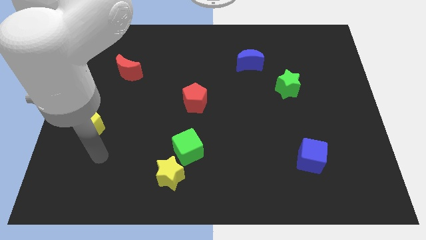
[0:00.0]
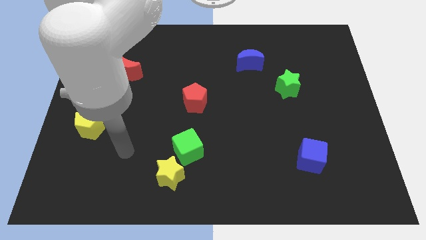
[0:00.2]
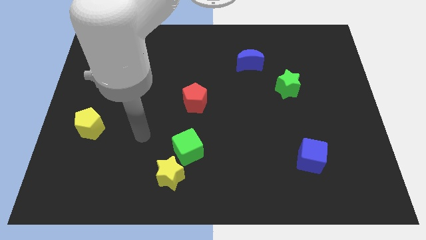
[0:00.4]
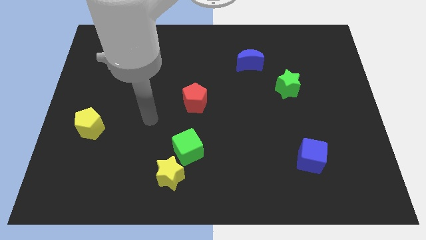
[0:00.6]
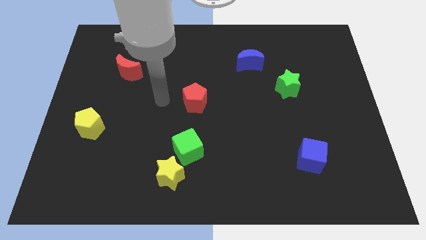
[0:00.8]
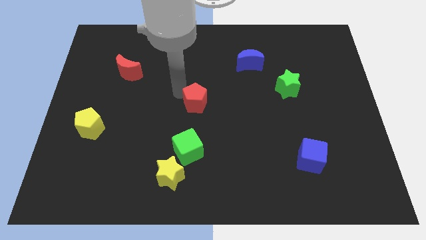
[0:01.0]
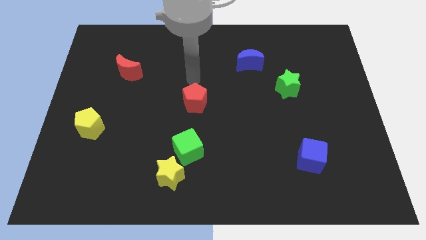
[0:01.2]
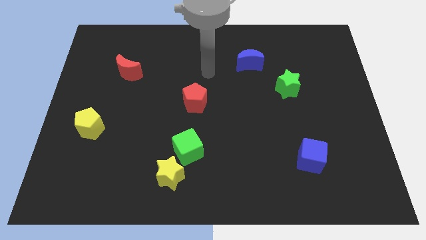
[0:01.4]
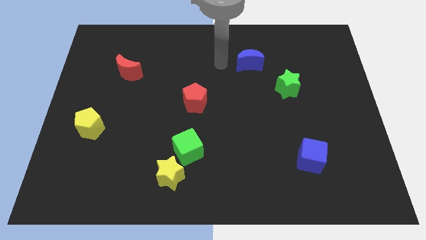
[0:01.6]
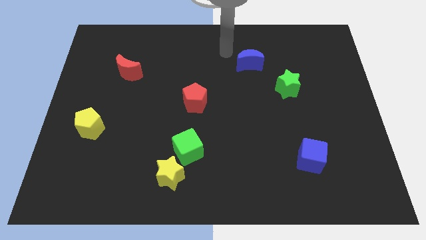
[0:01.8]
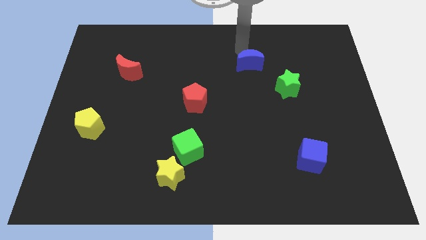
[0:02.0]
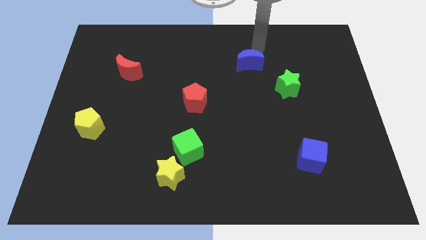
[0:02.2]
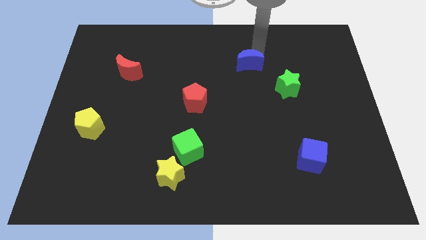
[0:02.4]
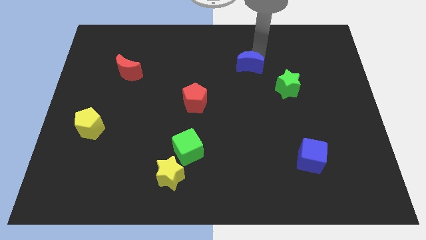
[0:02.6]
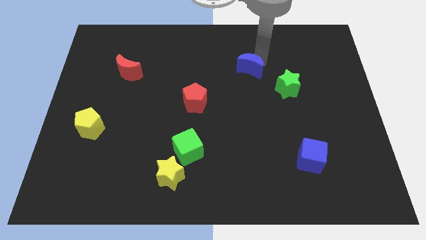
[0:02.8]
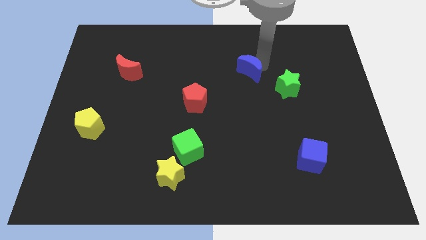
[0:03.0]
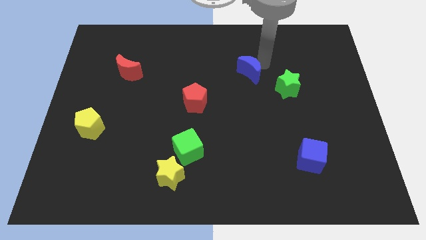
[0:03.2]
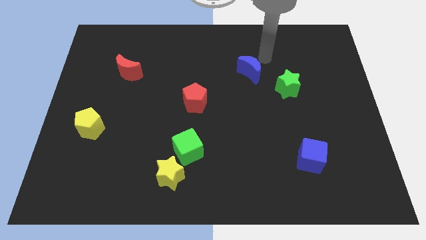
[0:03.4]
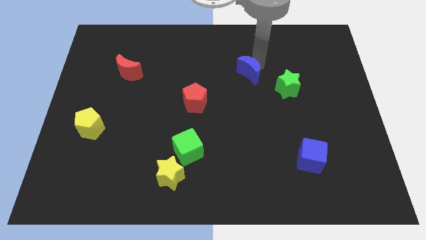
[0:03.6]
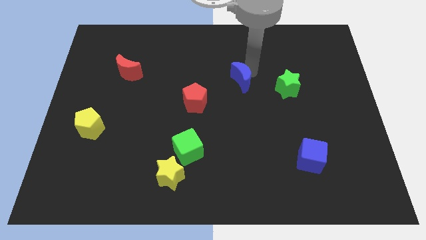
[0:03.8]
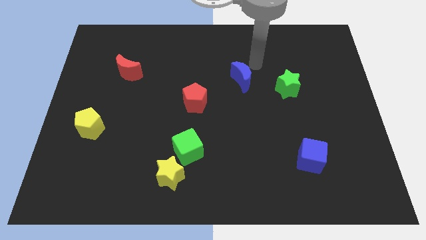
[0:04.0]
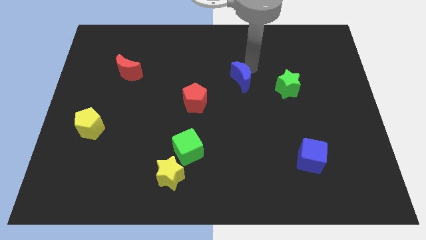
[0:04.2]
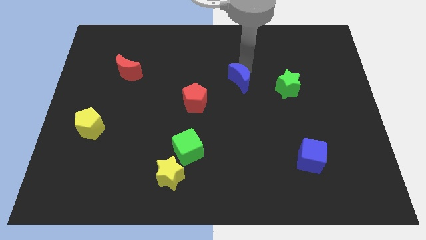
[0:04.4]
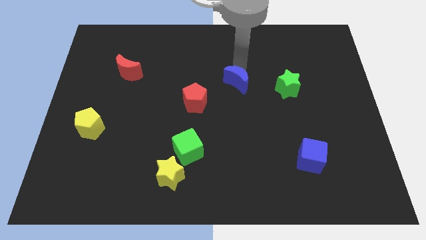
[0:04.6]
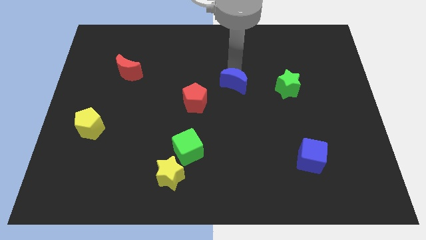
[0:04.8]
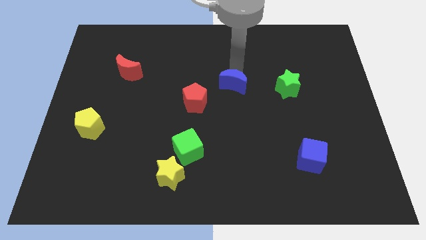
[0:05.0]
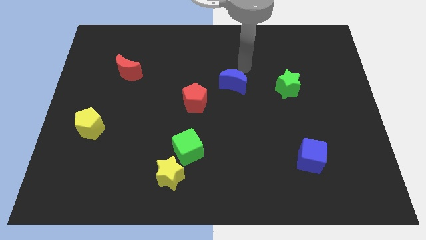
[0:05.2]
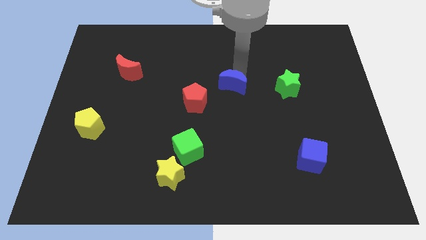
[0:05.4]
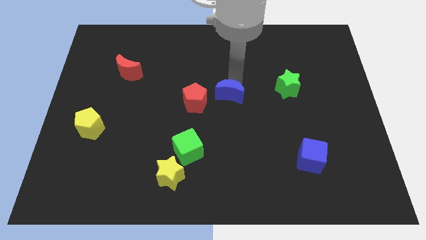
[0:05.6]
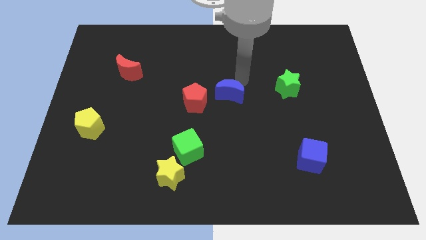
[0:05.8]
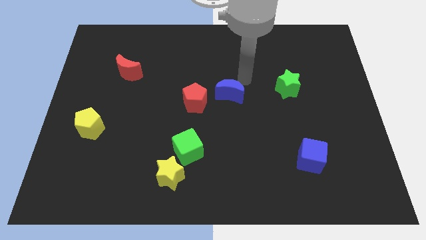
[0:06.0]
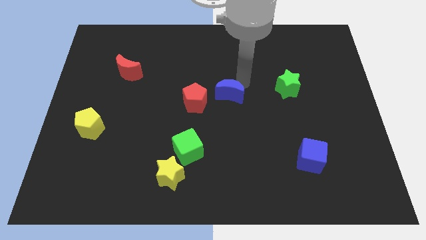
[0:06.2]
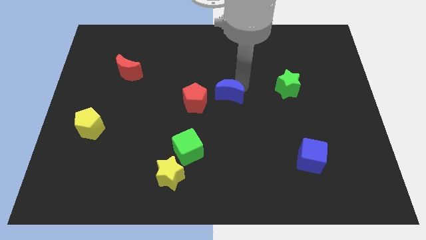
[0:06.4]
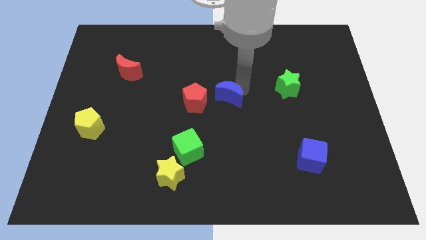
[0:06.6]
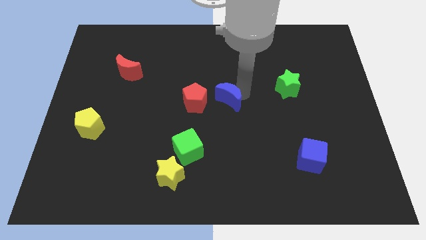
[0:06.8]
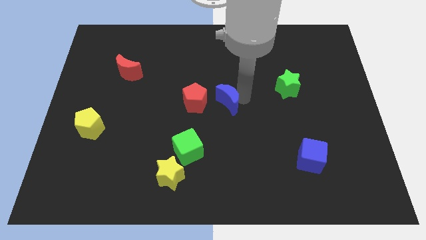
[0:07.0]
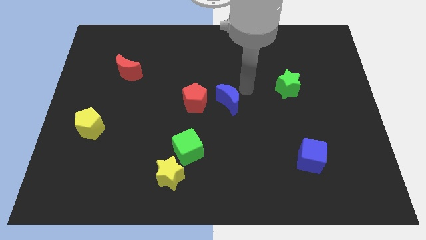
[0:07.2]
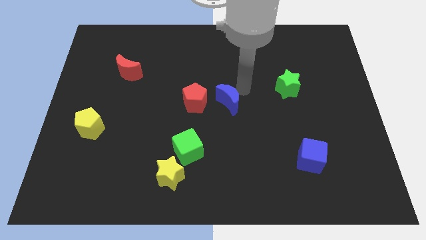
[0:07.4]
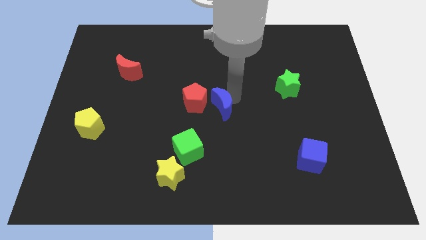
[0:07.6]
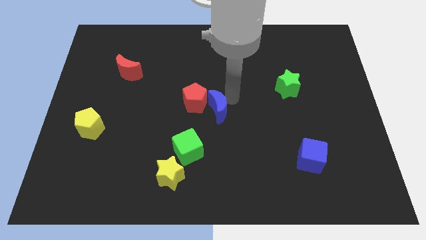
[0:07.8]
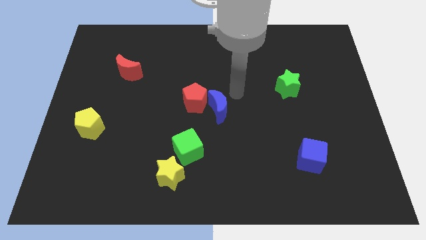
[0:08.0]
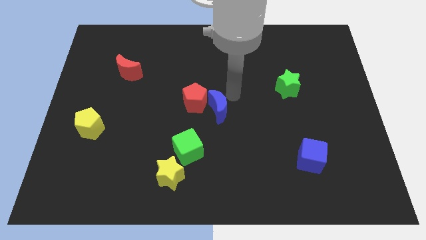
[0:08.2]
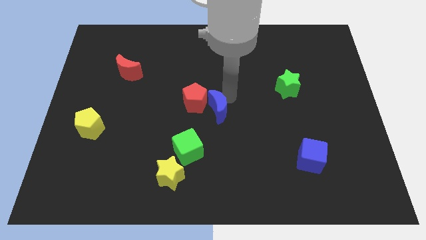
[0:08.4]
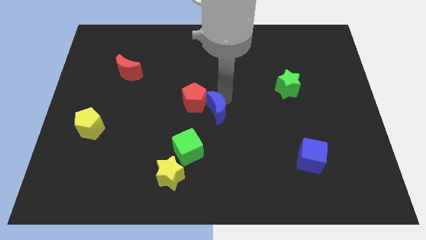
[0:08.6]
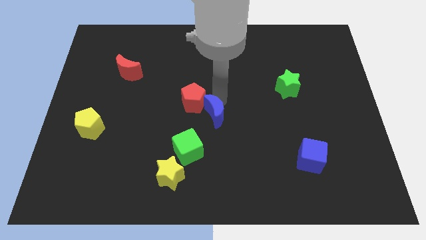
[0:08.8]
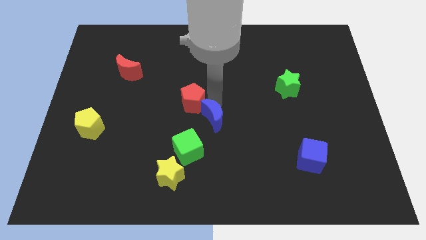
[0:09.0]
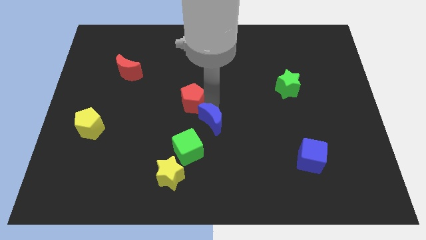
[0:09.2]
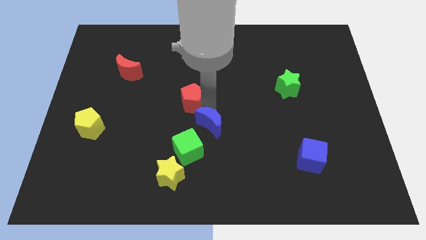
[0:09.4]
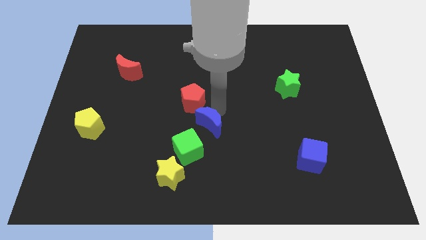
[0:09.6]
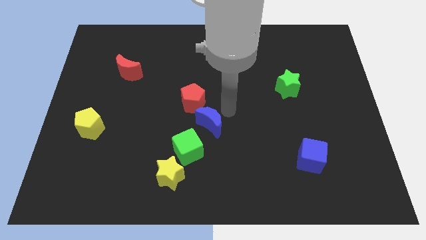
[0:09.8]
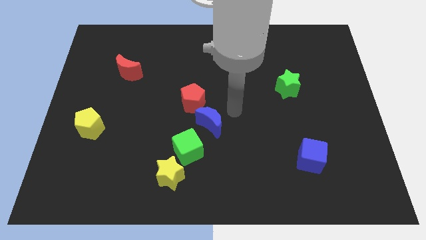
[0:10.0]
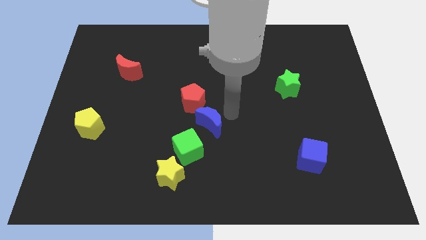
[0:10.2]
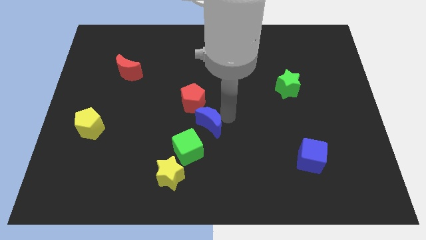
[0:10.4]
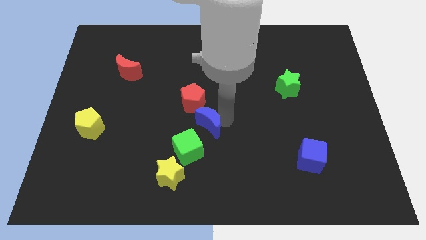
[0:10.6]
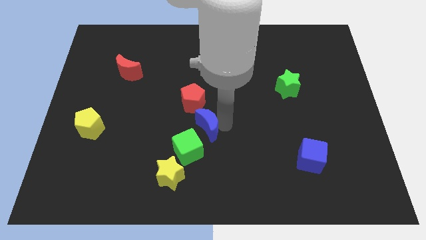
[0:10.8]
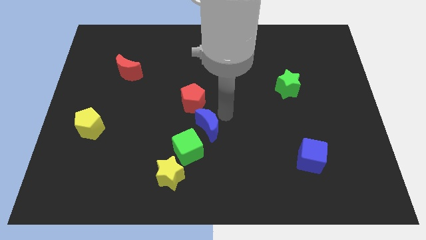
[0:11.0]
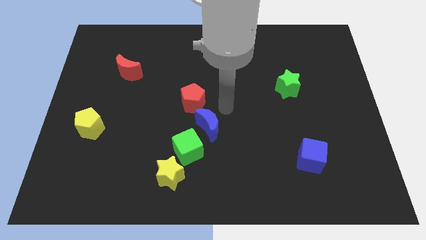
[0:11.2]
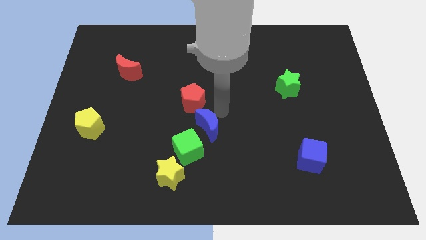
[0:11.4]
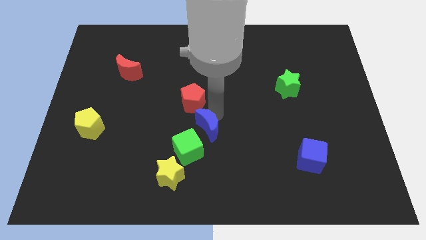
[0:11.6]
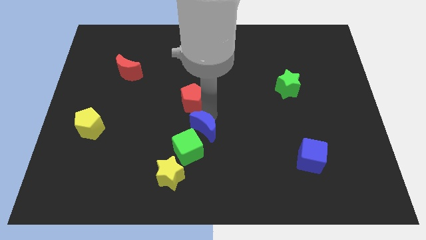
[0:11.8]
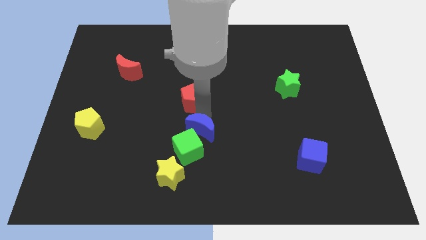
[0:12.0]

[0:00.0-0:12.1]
move the blue moon close to the green cube

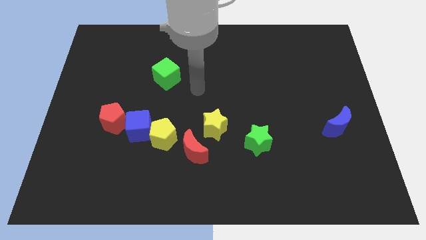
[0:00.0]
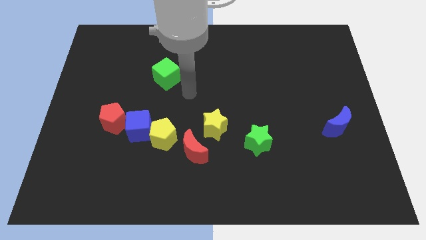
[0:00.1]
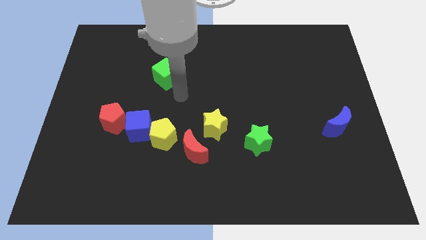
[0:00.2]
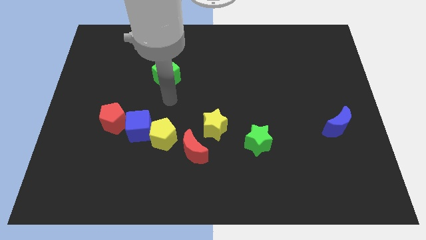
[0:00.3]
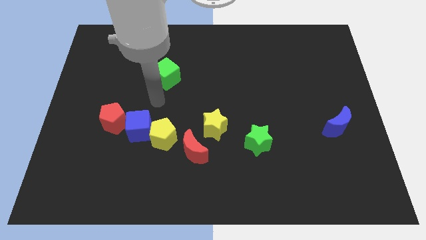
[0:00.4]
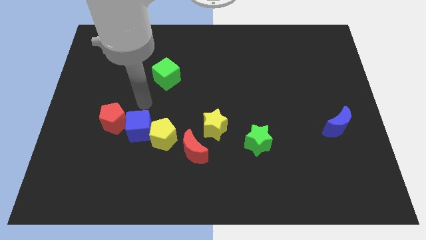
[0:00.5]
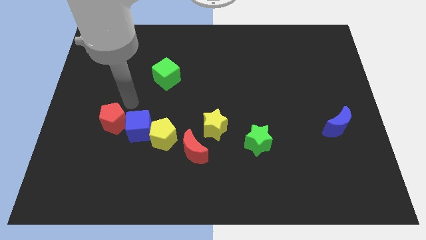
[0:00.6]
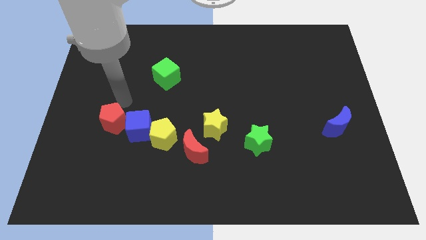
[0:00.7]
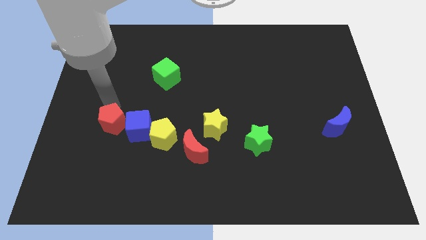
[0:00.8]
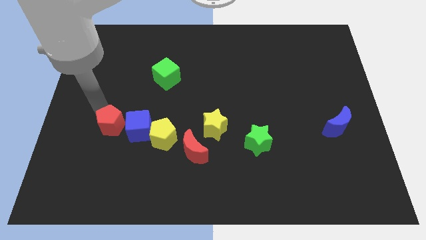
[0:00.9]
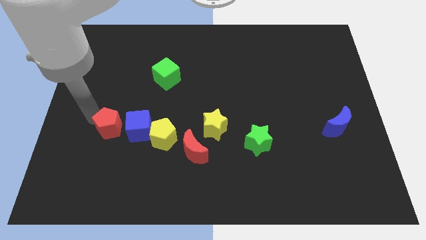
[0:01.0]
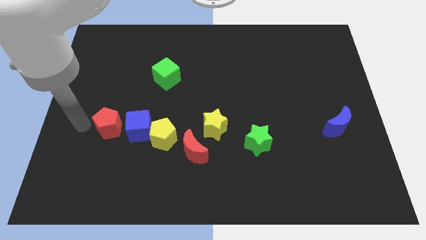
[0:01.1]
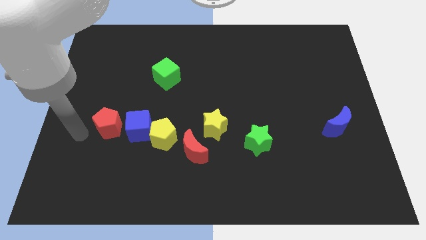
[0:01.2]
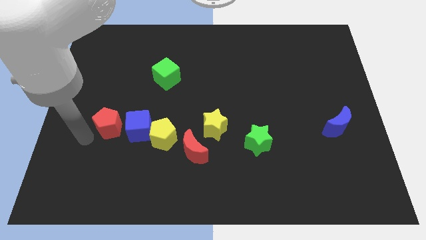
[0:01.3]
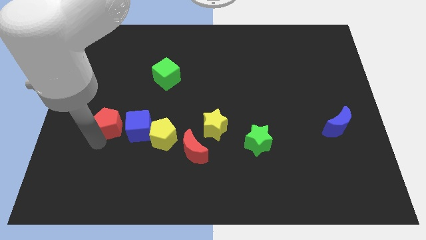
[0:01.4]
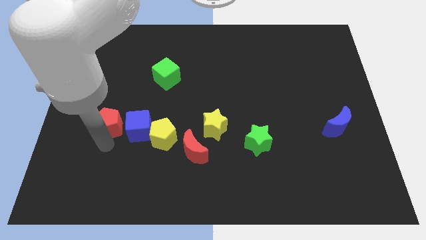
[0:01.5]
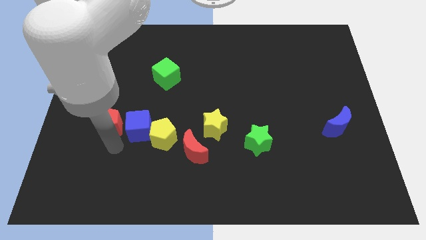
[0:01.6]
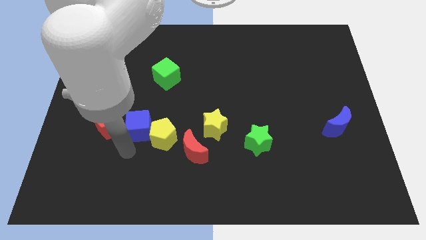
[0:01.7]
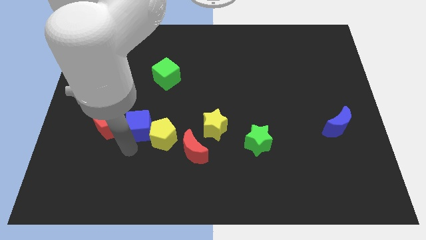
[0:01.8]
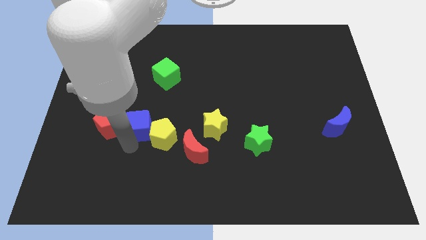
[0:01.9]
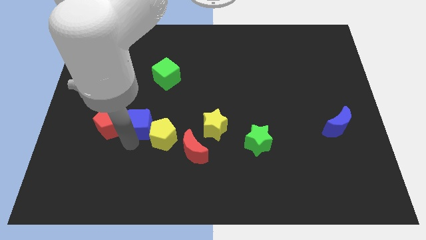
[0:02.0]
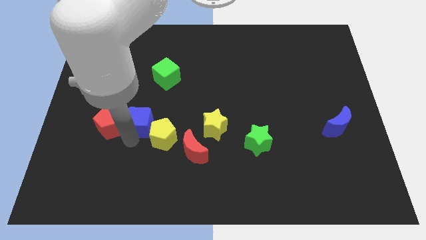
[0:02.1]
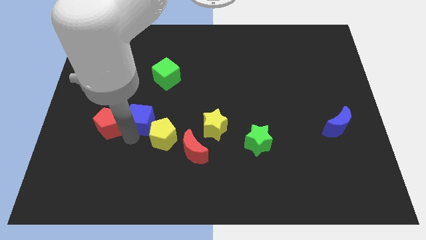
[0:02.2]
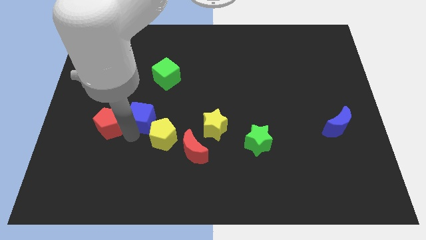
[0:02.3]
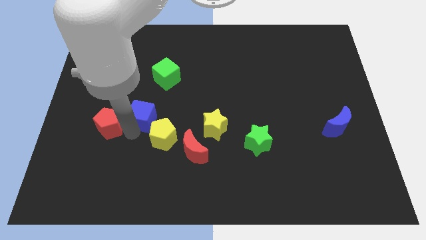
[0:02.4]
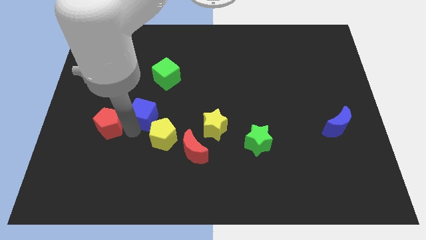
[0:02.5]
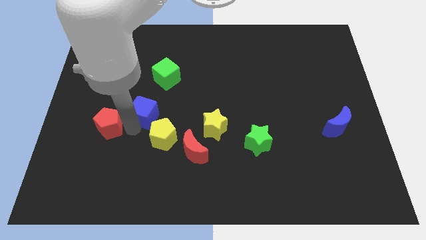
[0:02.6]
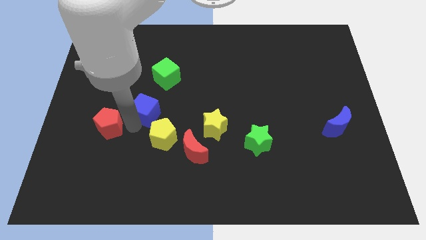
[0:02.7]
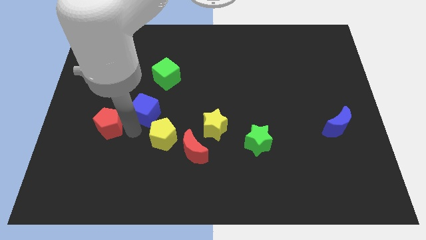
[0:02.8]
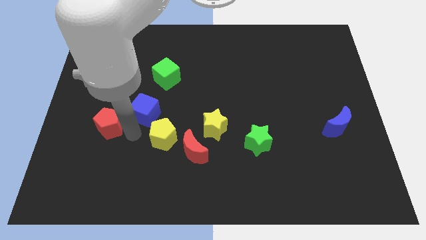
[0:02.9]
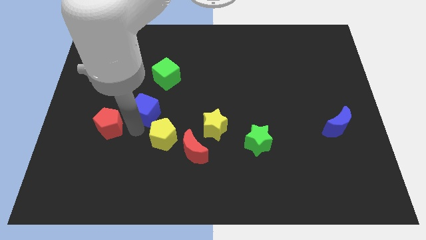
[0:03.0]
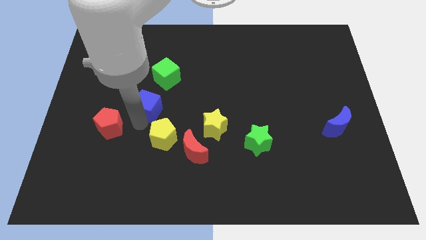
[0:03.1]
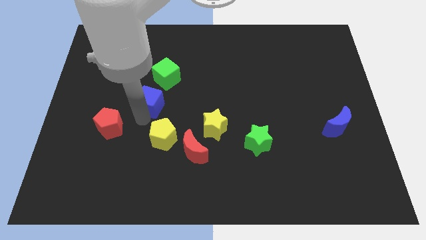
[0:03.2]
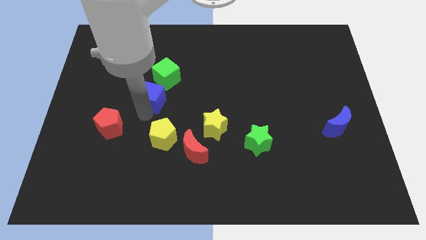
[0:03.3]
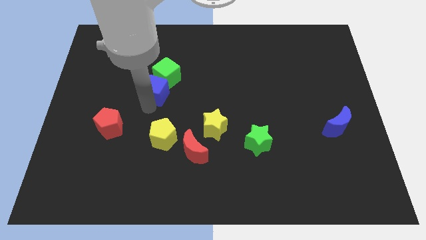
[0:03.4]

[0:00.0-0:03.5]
push the blue cube towards the green cube
